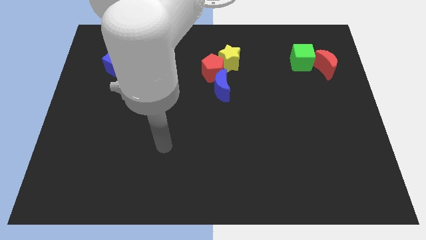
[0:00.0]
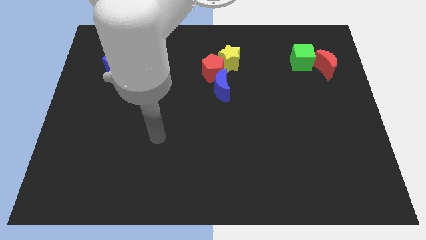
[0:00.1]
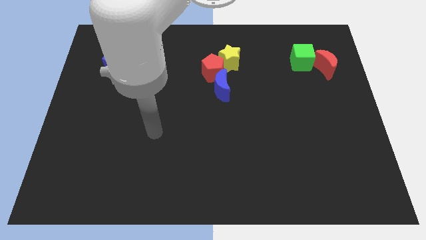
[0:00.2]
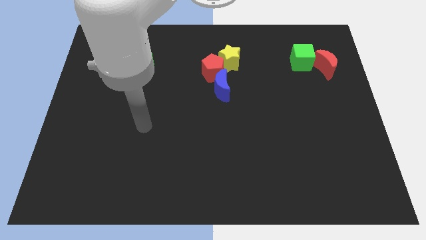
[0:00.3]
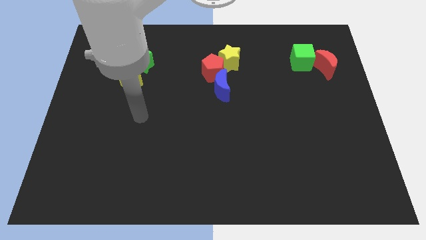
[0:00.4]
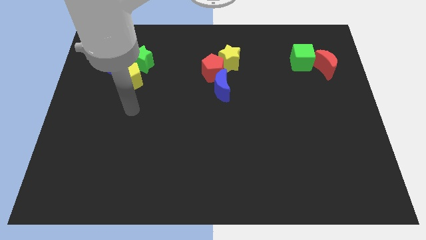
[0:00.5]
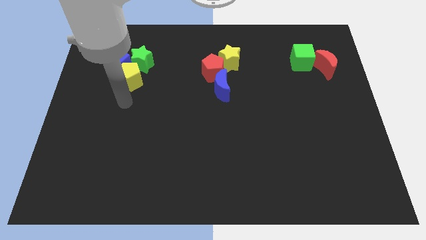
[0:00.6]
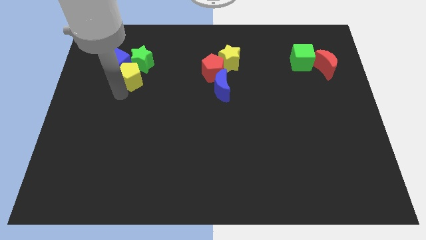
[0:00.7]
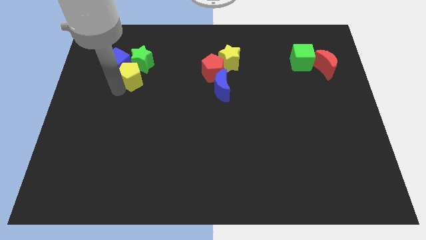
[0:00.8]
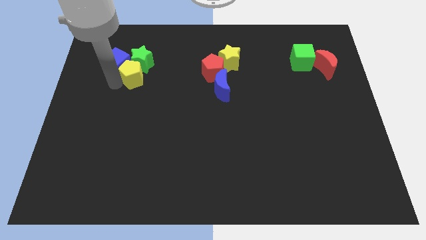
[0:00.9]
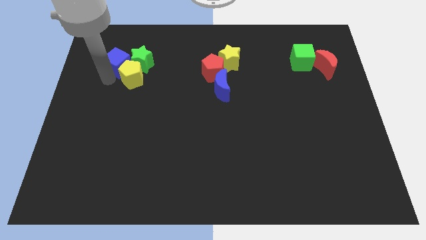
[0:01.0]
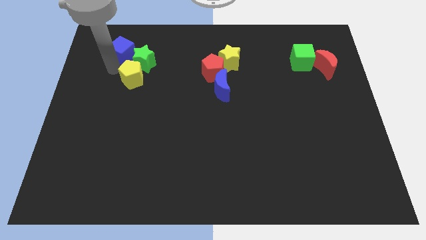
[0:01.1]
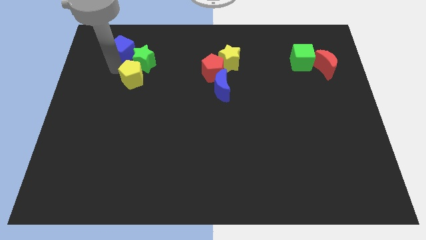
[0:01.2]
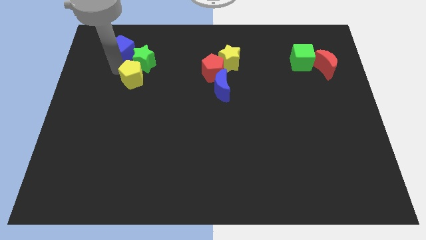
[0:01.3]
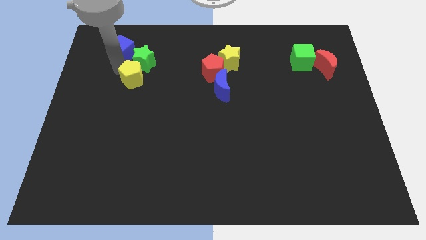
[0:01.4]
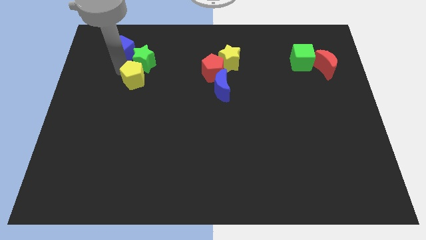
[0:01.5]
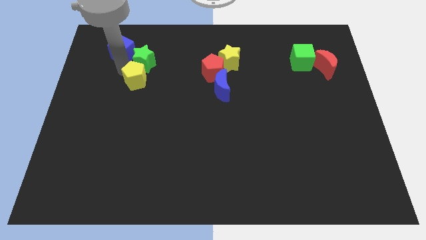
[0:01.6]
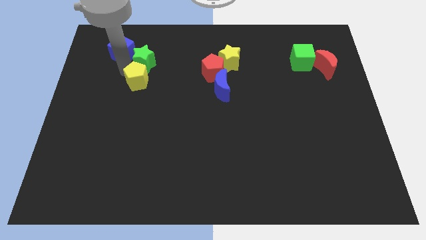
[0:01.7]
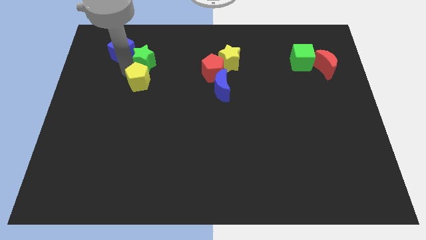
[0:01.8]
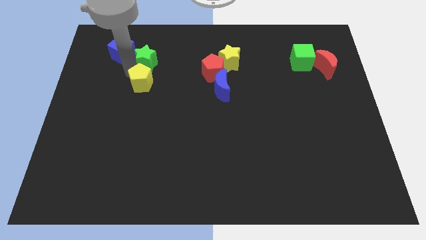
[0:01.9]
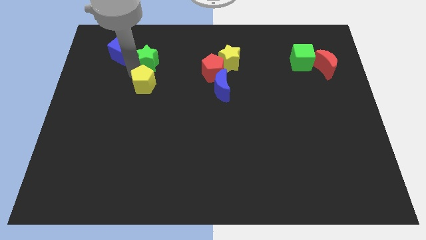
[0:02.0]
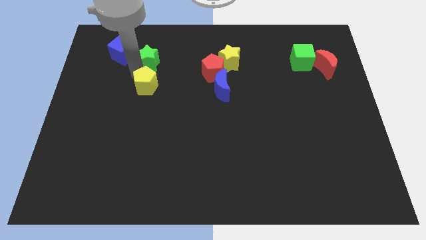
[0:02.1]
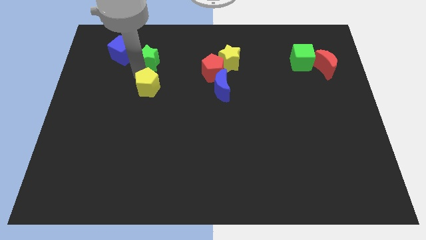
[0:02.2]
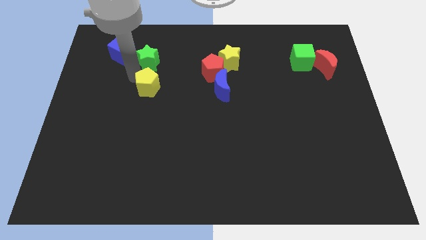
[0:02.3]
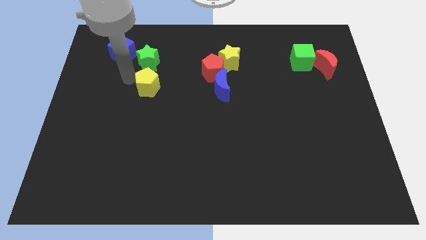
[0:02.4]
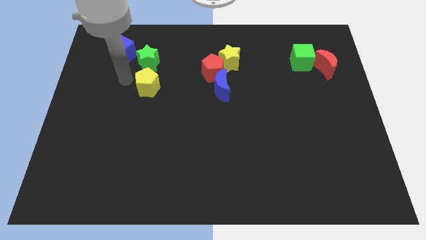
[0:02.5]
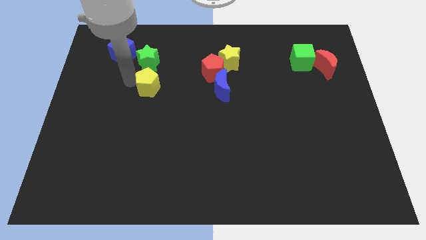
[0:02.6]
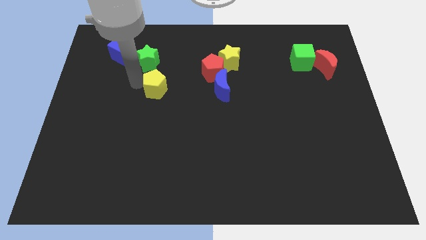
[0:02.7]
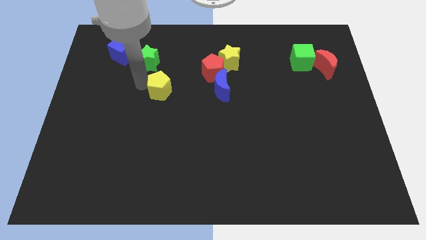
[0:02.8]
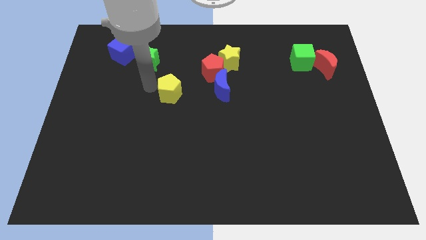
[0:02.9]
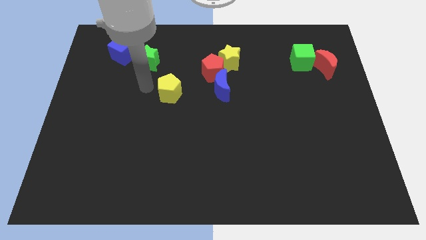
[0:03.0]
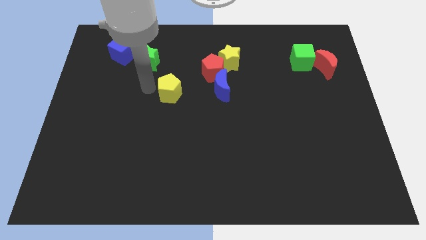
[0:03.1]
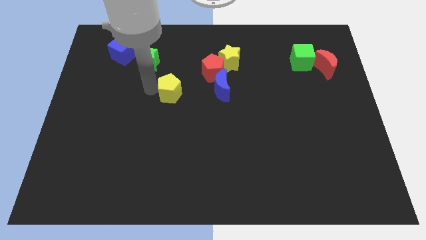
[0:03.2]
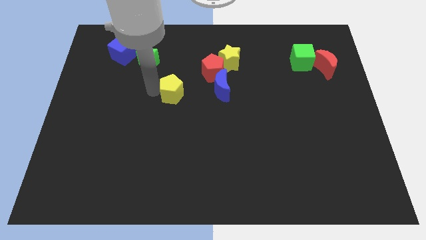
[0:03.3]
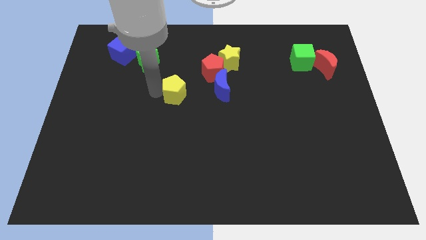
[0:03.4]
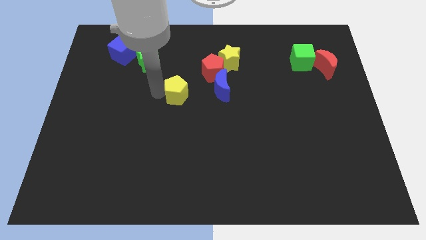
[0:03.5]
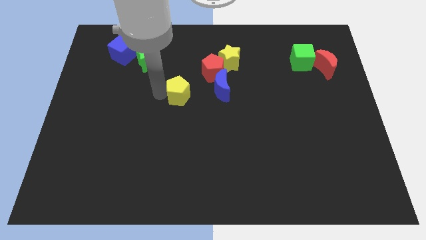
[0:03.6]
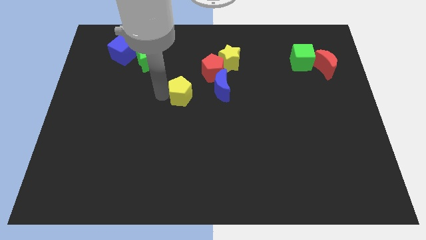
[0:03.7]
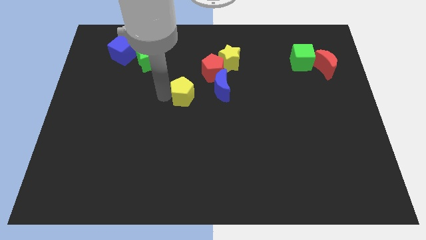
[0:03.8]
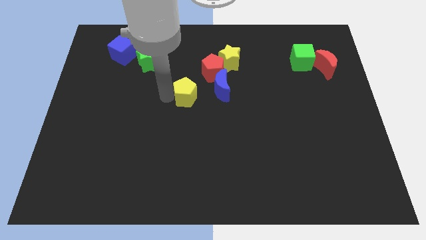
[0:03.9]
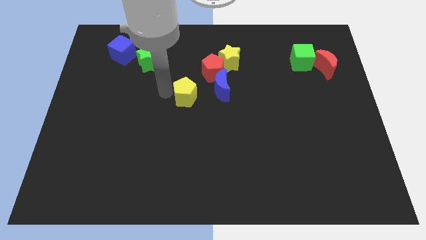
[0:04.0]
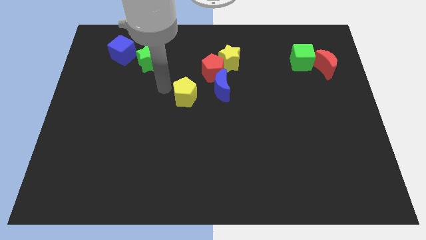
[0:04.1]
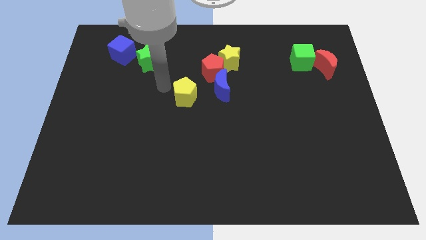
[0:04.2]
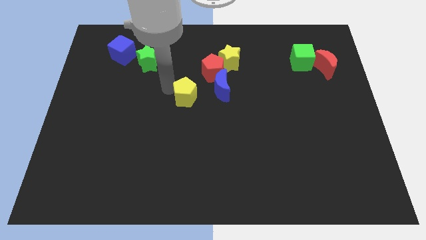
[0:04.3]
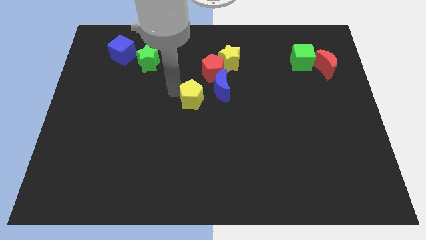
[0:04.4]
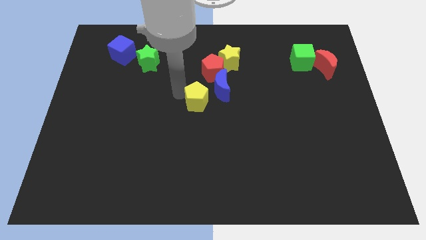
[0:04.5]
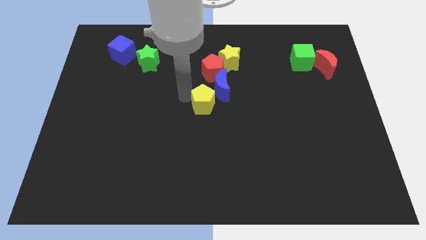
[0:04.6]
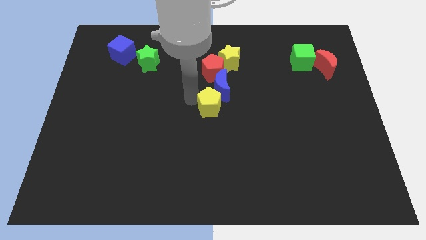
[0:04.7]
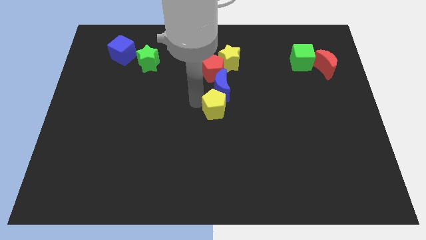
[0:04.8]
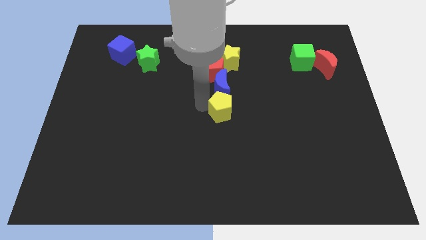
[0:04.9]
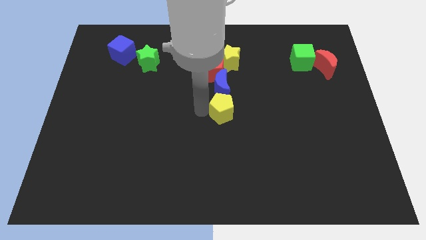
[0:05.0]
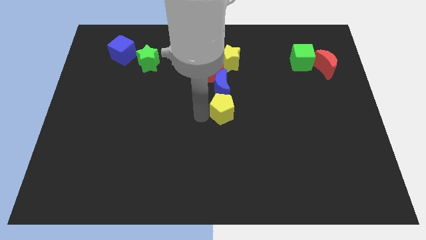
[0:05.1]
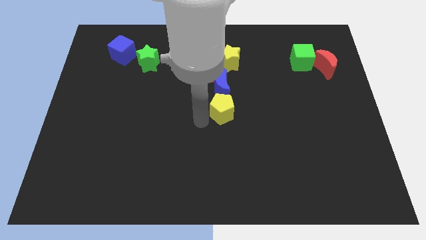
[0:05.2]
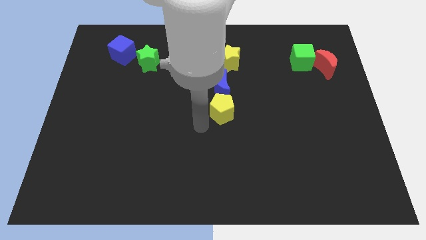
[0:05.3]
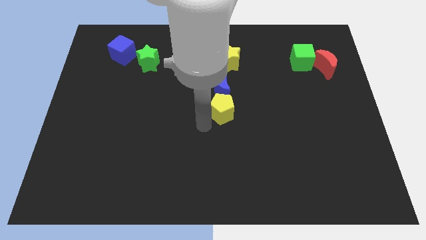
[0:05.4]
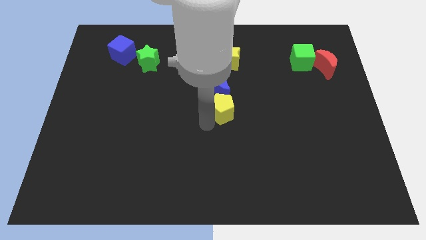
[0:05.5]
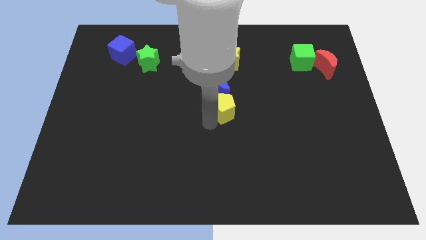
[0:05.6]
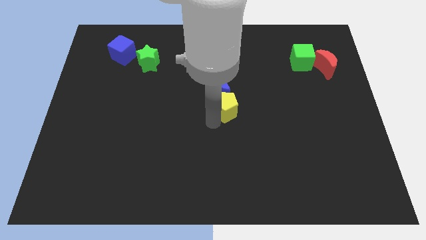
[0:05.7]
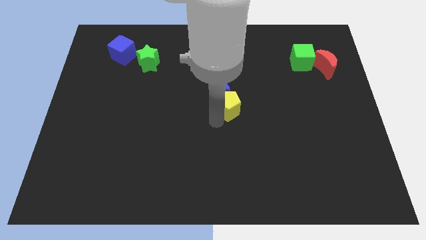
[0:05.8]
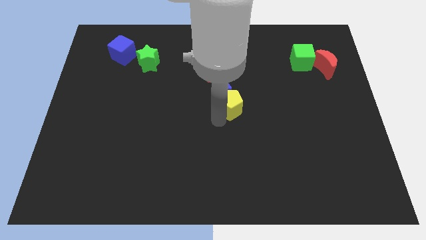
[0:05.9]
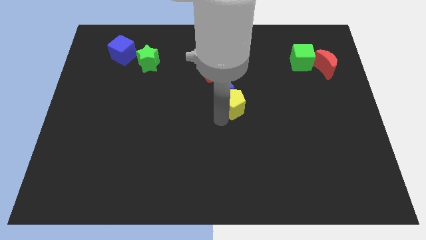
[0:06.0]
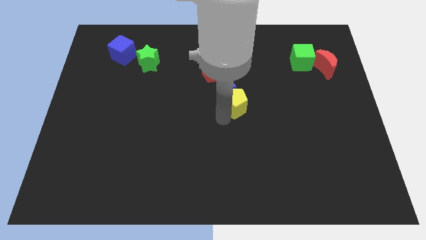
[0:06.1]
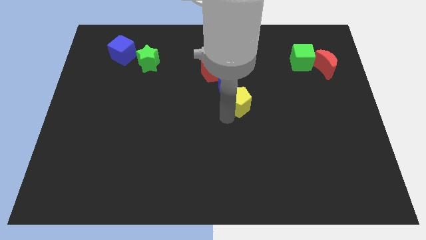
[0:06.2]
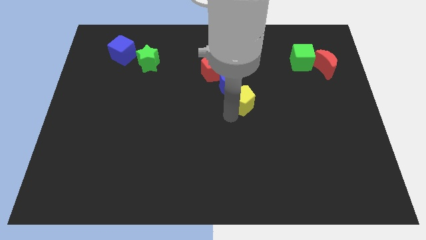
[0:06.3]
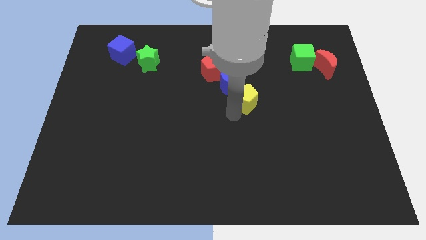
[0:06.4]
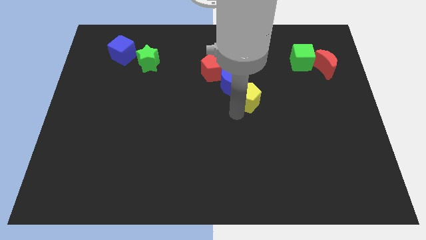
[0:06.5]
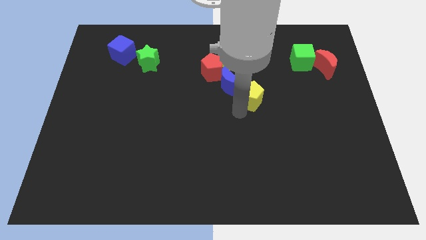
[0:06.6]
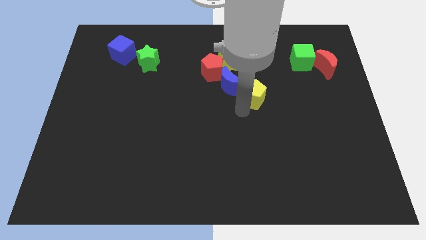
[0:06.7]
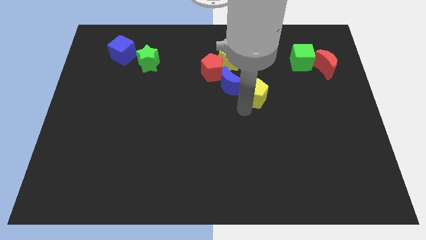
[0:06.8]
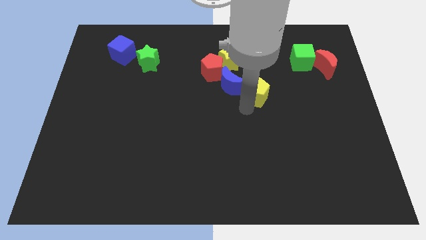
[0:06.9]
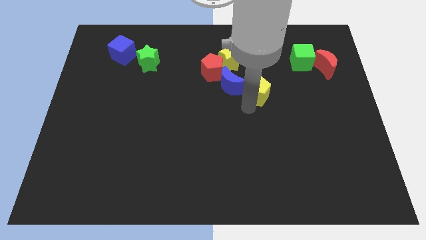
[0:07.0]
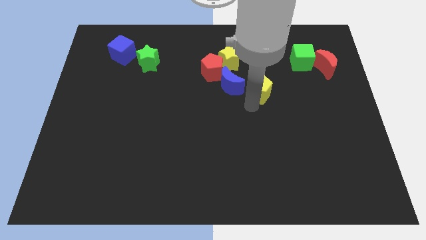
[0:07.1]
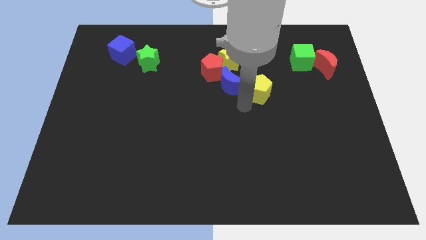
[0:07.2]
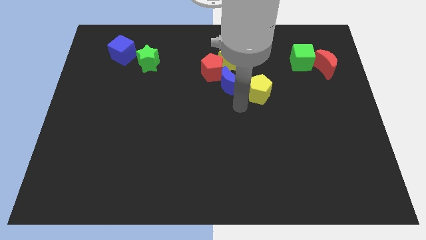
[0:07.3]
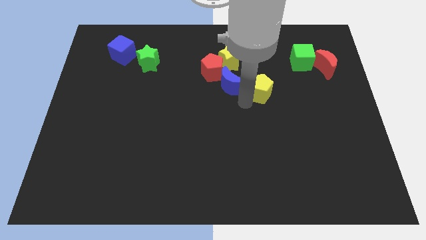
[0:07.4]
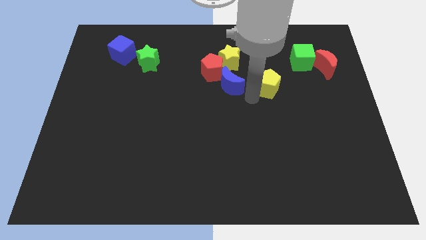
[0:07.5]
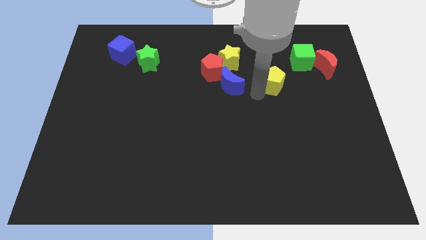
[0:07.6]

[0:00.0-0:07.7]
slide the yellow pentagon diagonally down and to the left of the green cube

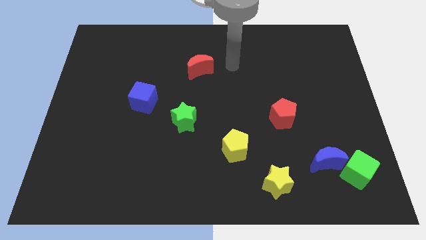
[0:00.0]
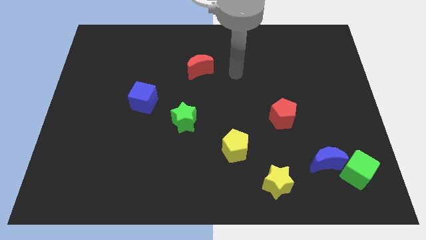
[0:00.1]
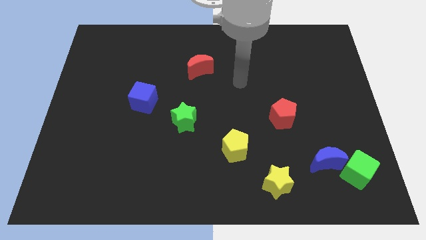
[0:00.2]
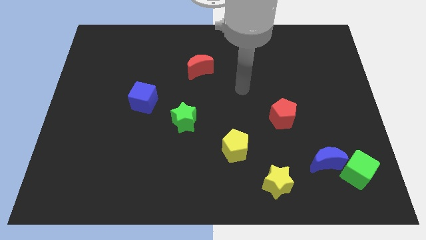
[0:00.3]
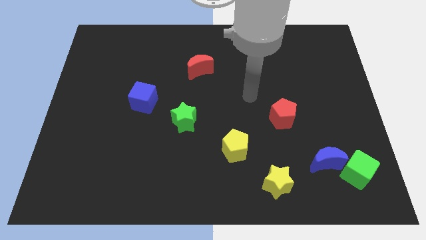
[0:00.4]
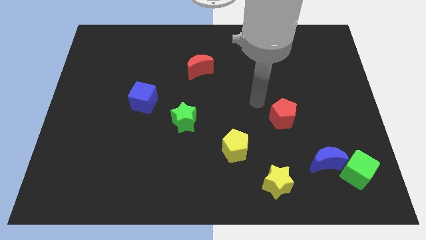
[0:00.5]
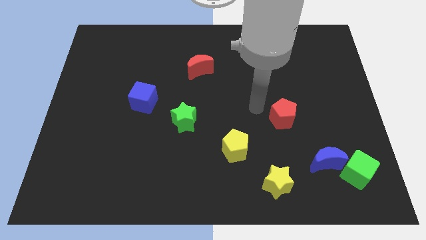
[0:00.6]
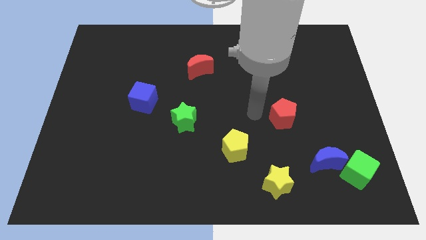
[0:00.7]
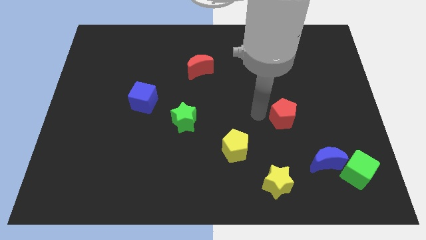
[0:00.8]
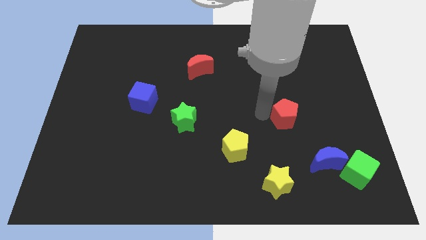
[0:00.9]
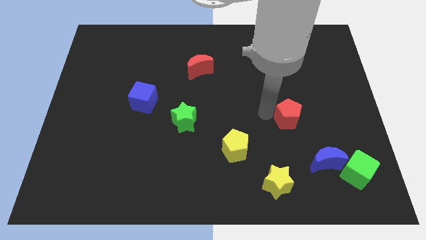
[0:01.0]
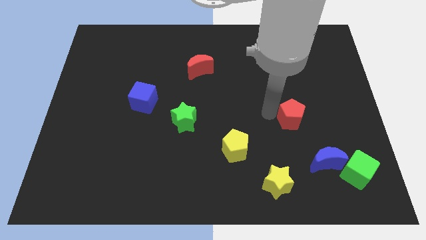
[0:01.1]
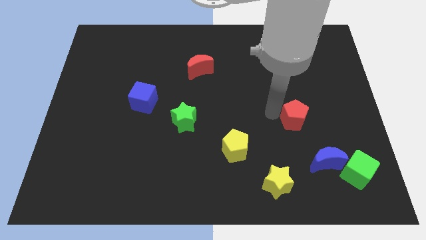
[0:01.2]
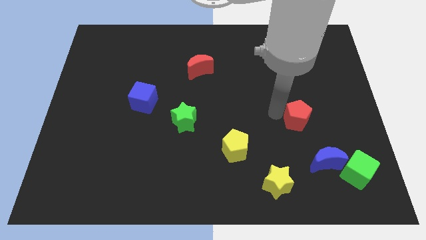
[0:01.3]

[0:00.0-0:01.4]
slide the red pentagon above the blue moon
